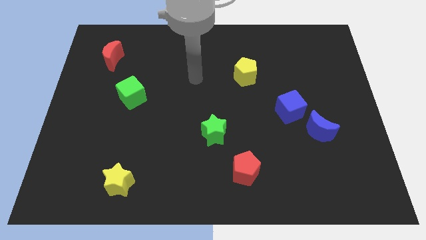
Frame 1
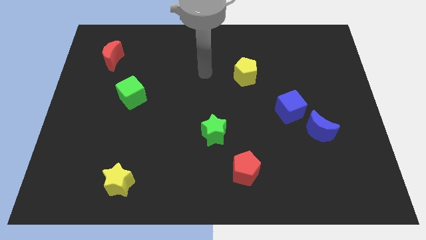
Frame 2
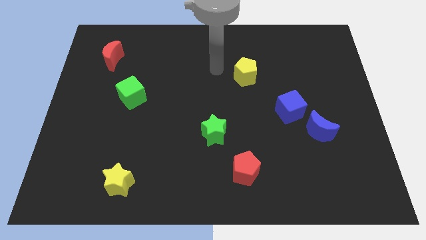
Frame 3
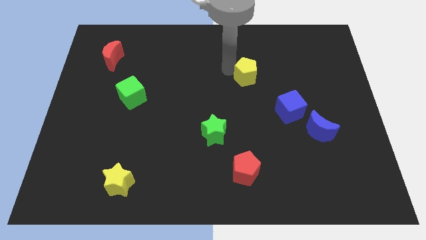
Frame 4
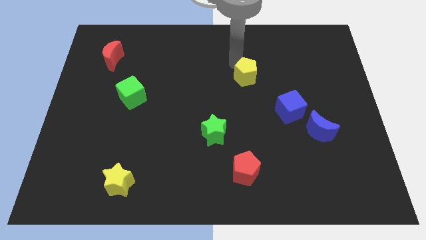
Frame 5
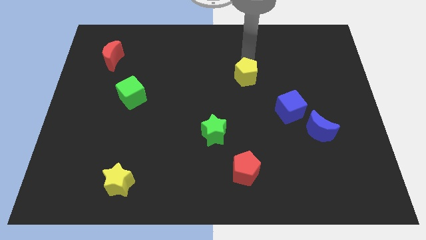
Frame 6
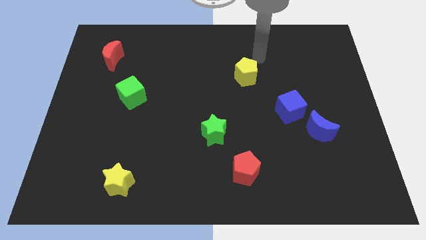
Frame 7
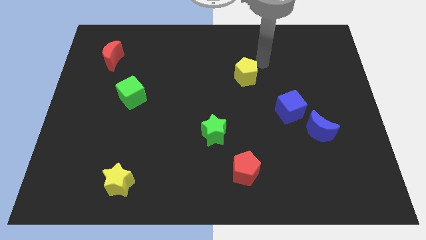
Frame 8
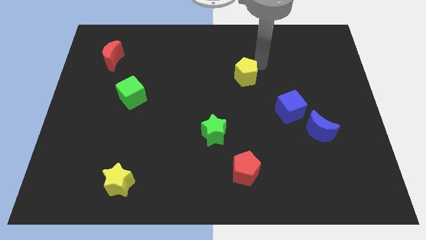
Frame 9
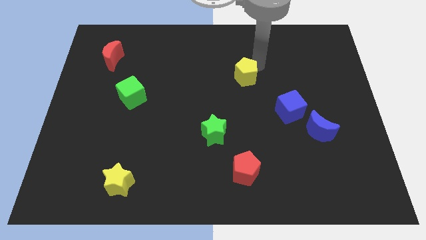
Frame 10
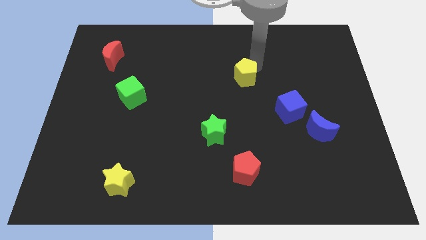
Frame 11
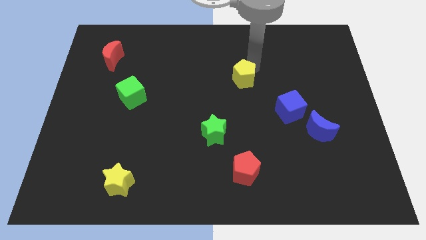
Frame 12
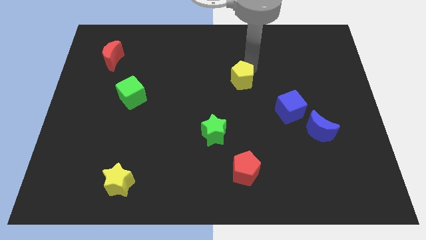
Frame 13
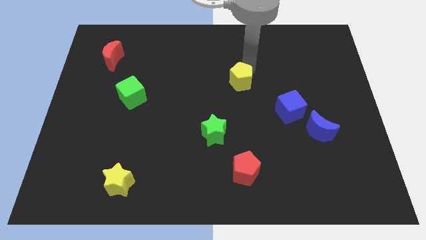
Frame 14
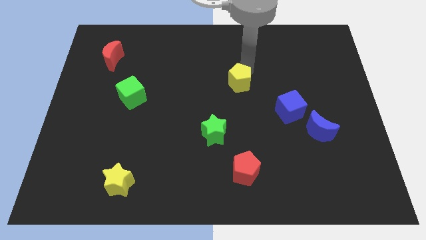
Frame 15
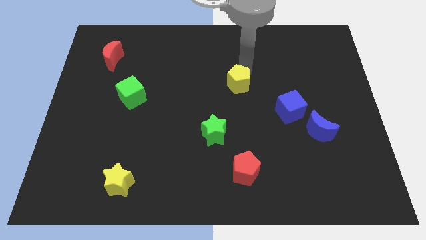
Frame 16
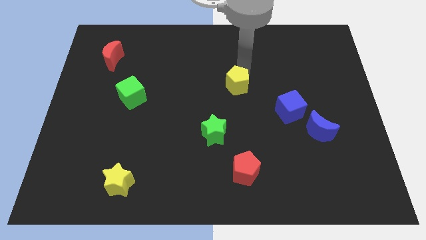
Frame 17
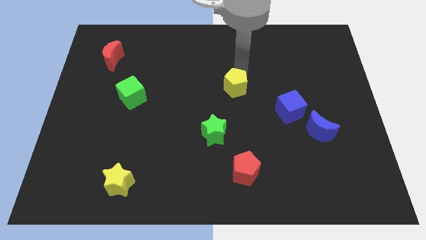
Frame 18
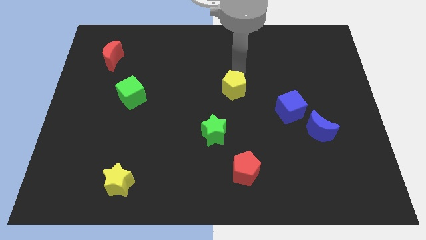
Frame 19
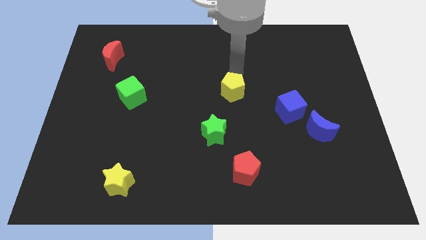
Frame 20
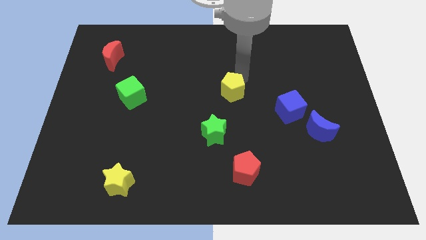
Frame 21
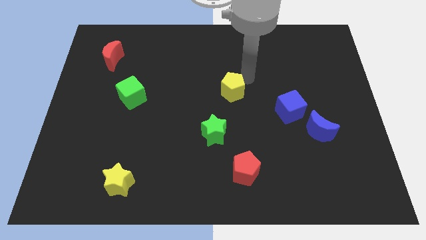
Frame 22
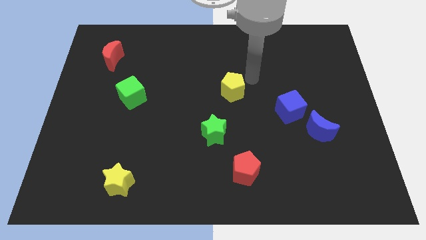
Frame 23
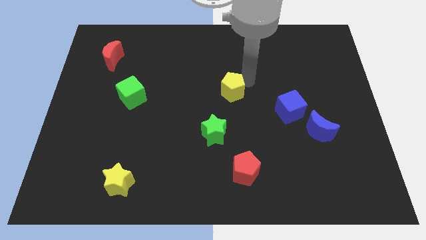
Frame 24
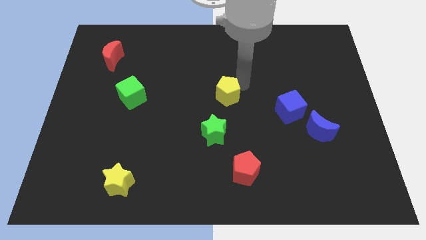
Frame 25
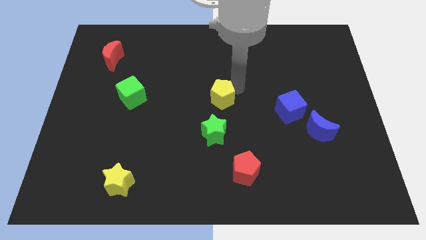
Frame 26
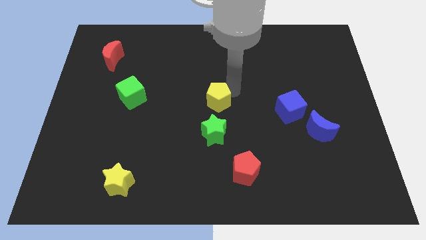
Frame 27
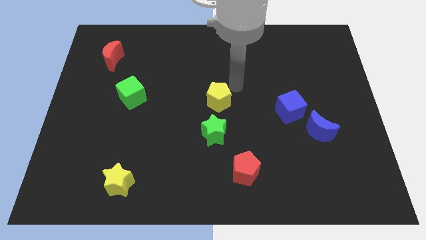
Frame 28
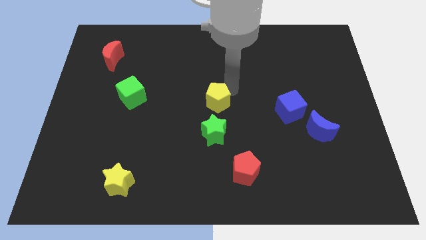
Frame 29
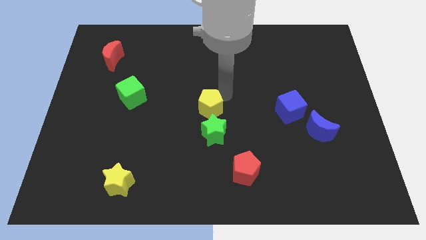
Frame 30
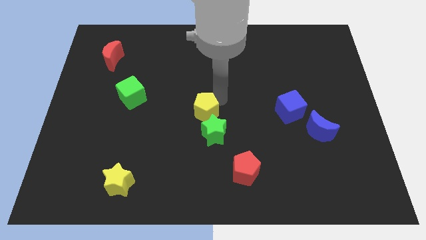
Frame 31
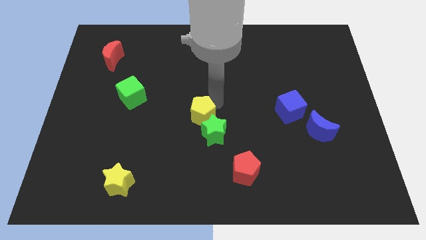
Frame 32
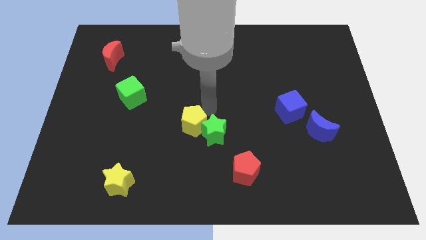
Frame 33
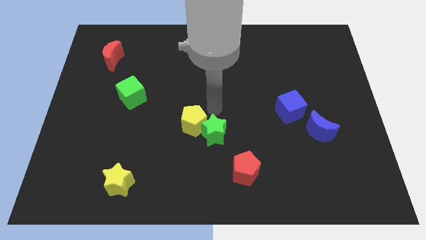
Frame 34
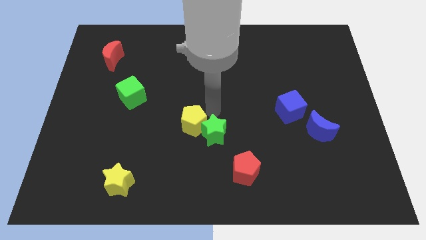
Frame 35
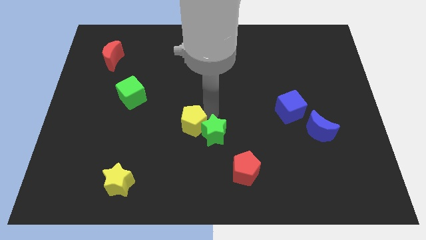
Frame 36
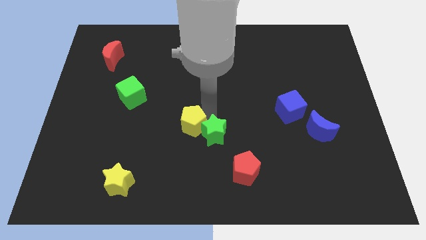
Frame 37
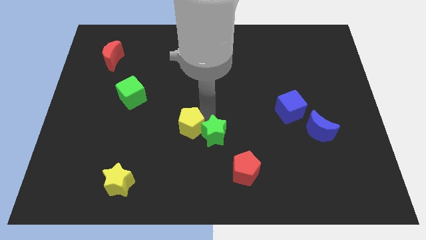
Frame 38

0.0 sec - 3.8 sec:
push the yellow pentagon downwards and then left

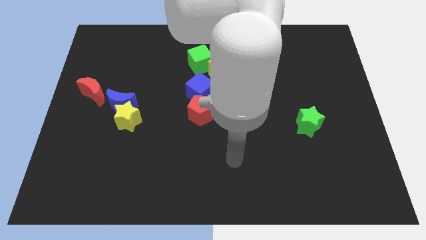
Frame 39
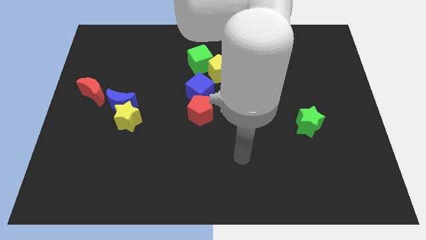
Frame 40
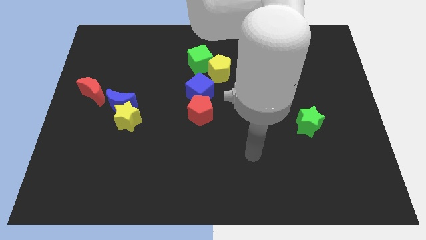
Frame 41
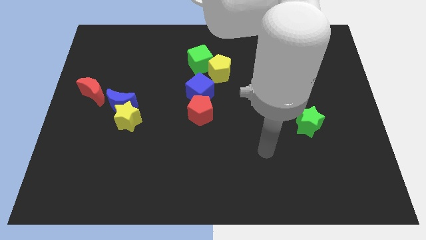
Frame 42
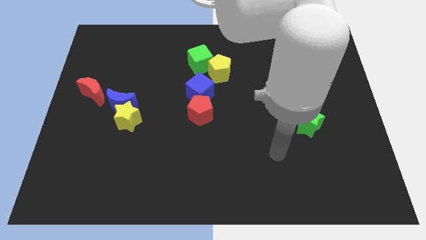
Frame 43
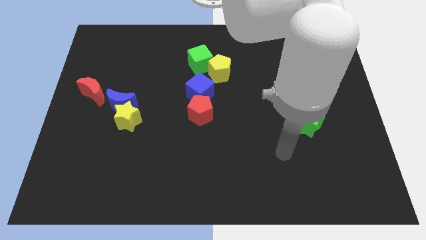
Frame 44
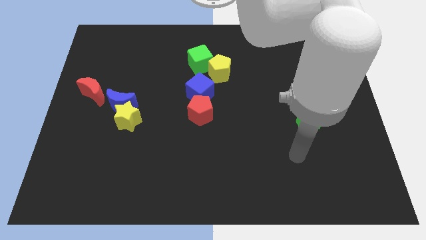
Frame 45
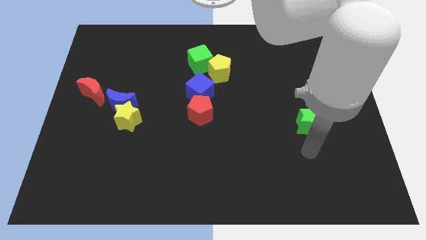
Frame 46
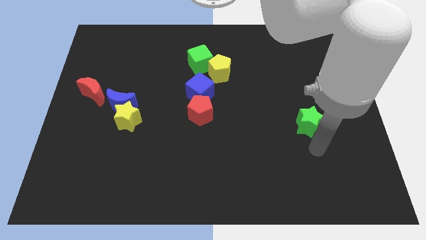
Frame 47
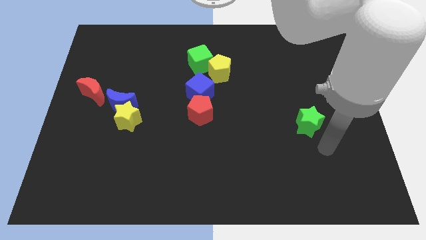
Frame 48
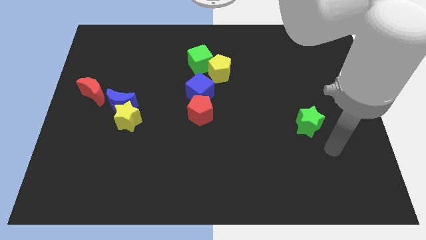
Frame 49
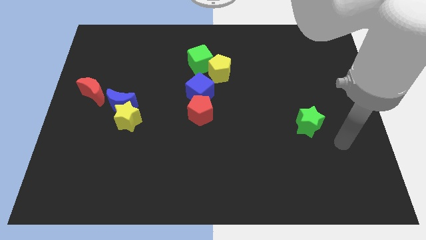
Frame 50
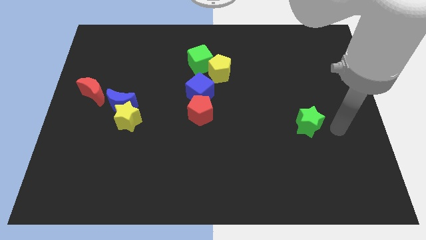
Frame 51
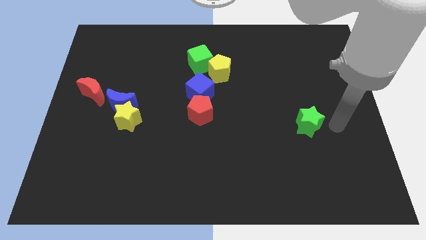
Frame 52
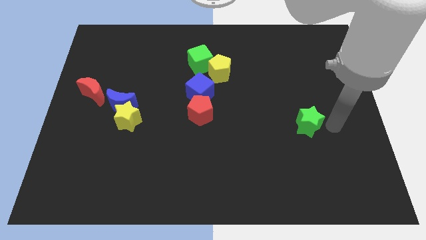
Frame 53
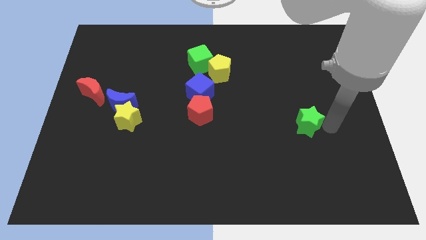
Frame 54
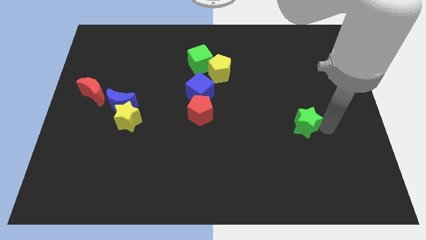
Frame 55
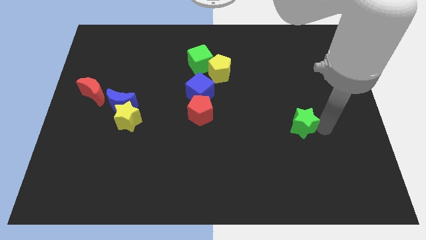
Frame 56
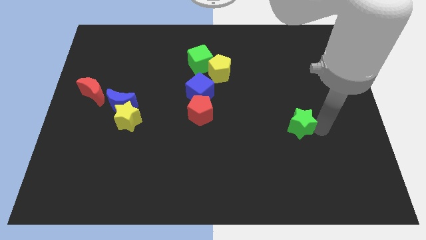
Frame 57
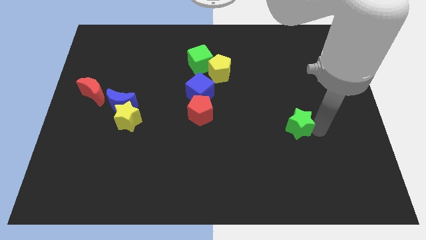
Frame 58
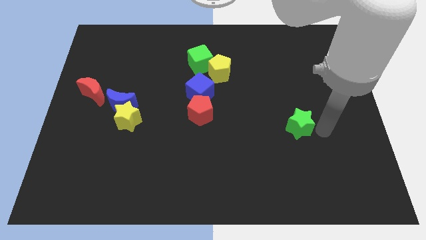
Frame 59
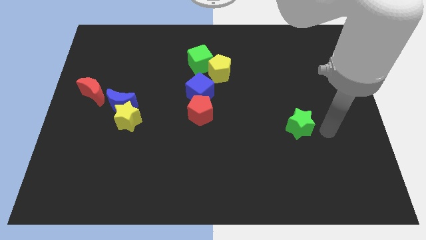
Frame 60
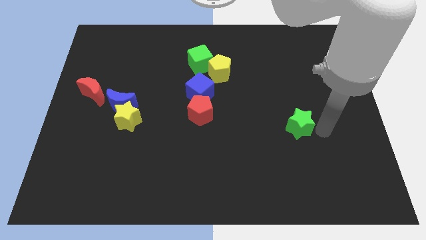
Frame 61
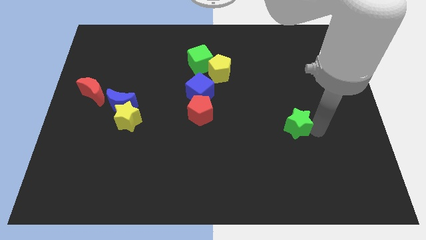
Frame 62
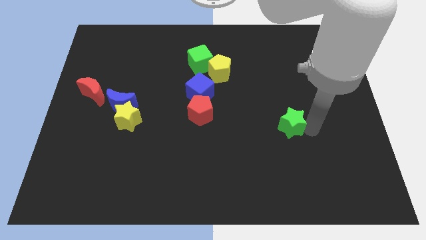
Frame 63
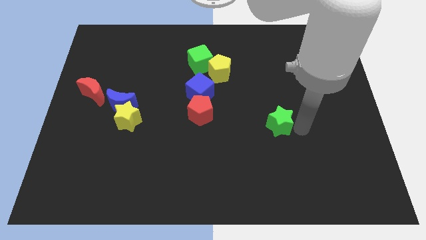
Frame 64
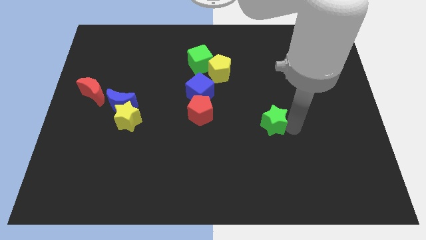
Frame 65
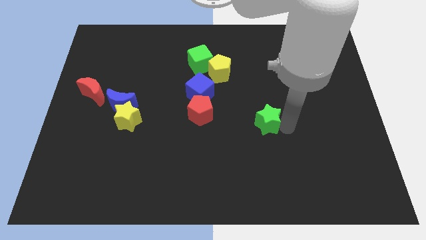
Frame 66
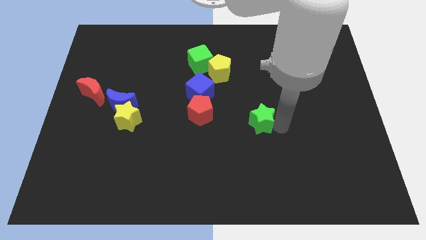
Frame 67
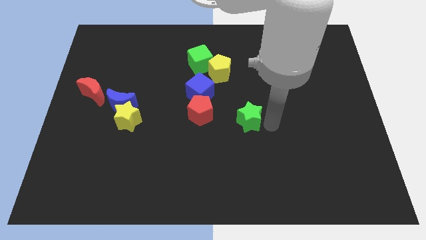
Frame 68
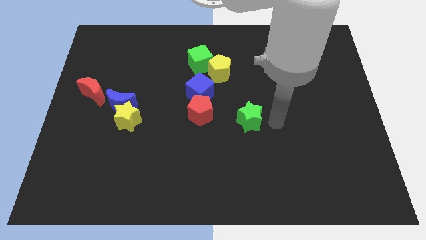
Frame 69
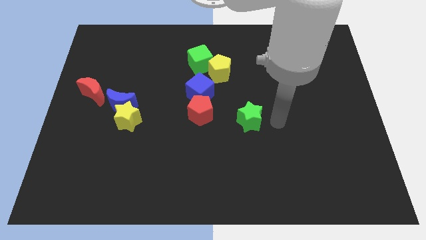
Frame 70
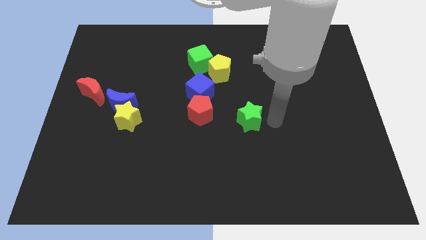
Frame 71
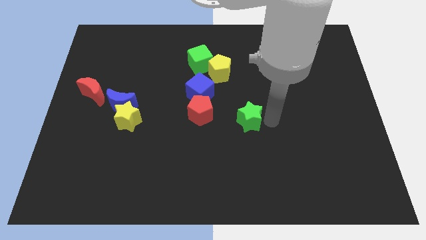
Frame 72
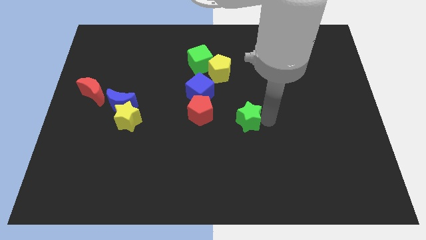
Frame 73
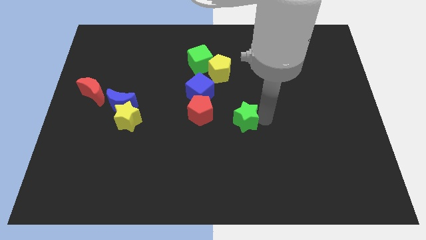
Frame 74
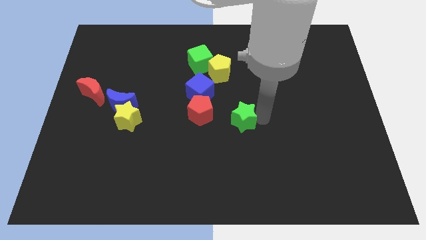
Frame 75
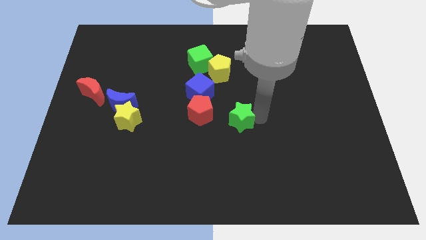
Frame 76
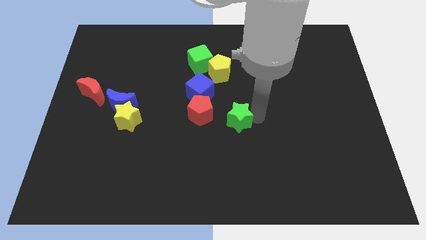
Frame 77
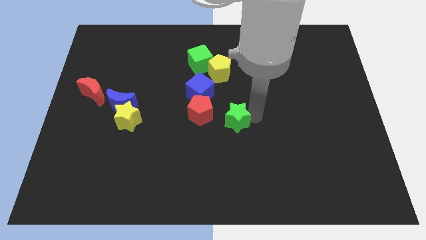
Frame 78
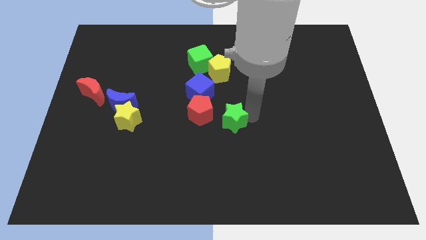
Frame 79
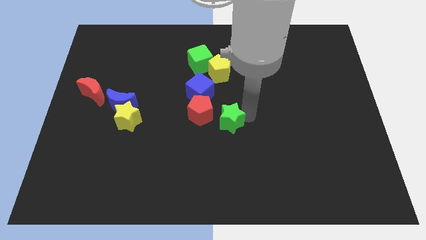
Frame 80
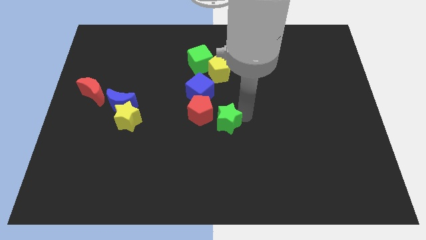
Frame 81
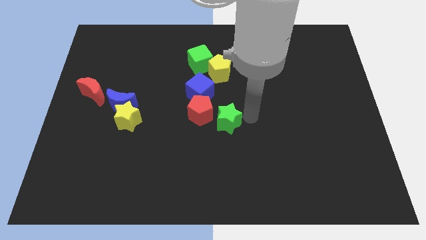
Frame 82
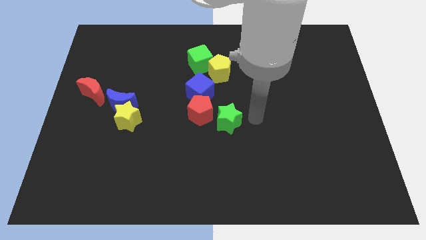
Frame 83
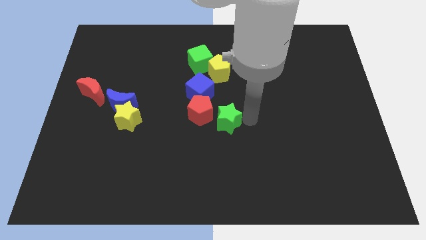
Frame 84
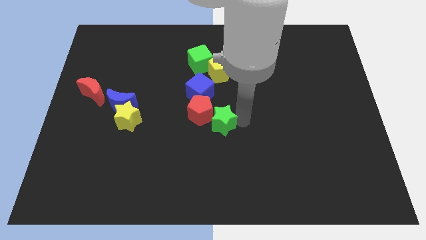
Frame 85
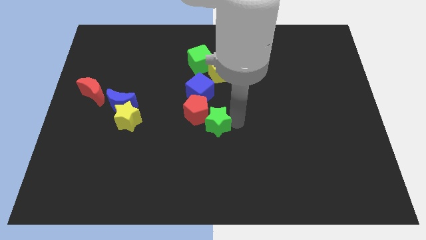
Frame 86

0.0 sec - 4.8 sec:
move the green star left

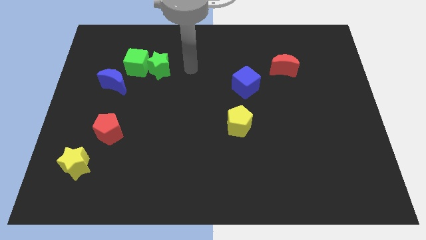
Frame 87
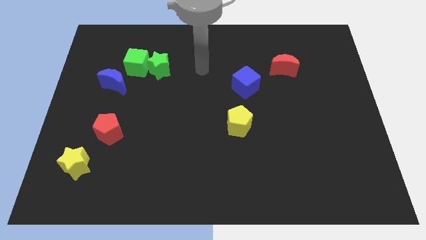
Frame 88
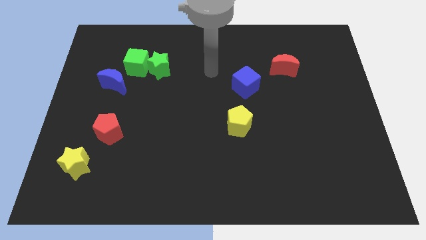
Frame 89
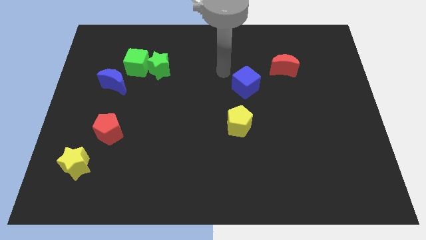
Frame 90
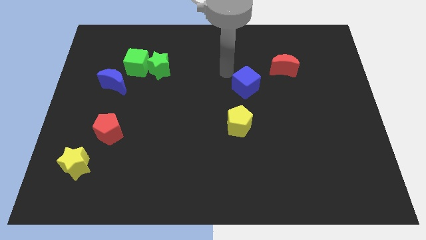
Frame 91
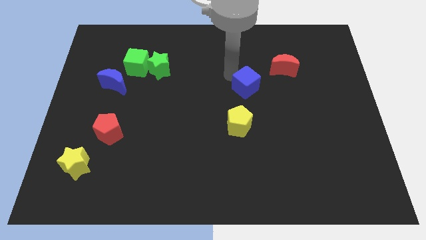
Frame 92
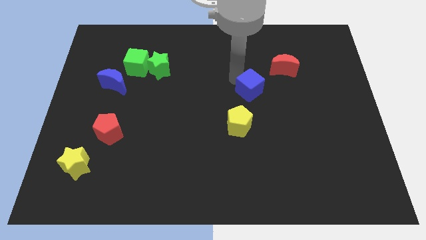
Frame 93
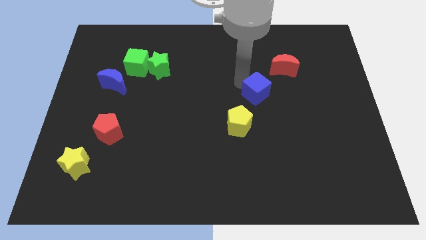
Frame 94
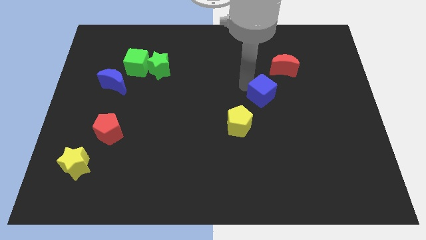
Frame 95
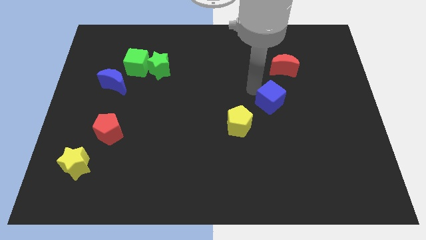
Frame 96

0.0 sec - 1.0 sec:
push the blue cube slightly diagonally downwards and right
